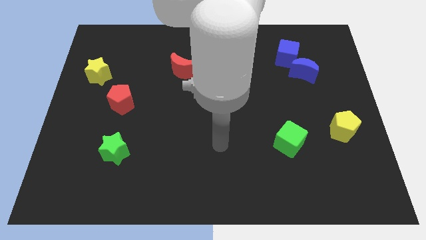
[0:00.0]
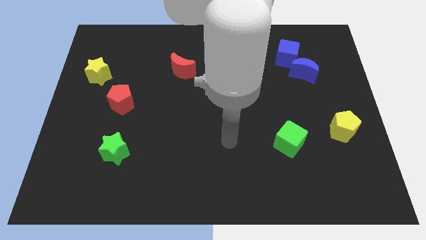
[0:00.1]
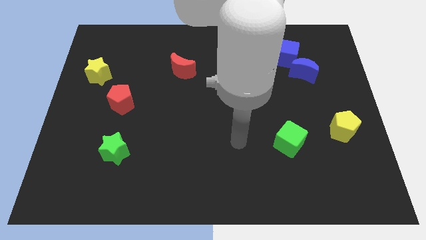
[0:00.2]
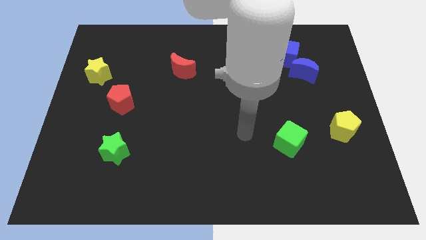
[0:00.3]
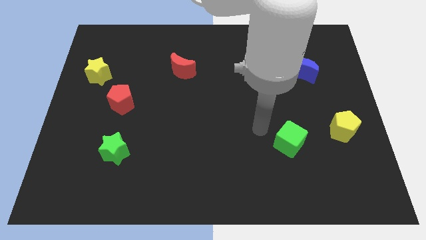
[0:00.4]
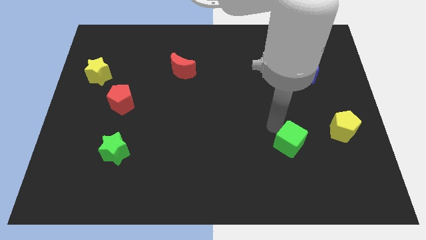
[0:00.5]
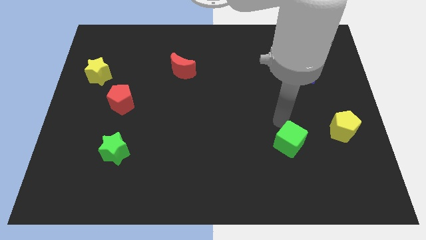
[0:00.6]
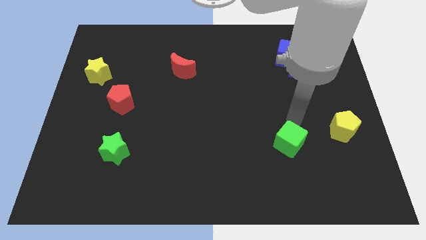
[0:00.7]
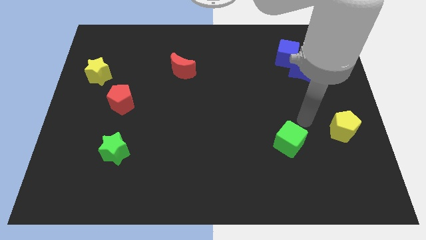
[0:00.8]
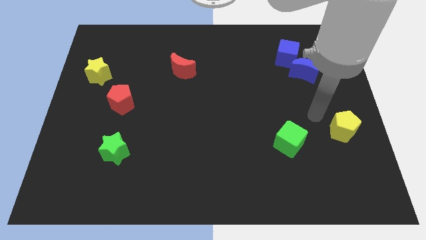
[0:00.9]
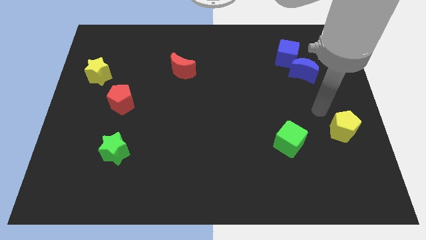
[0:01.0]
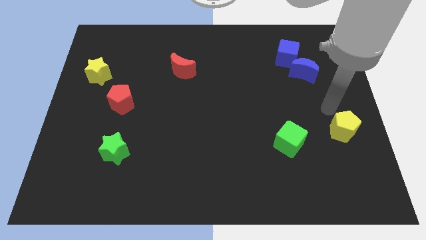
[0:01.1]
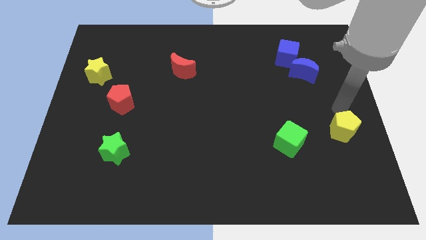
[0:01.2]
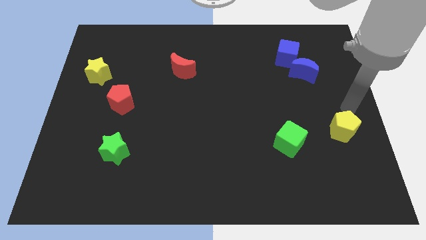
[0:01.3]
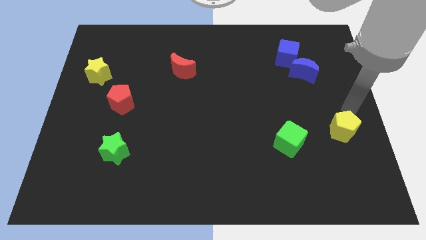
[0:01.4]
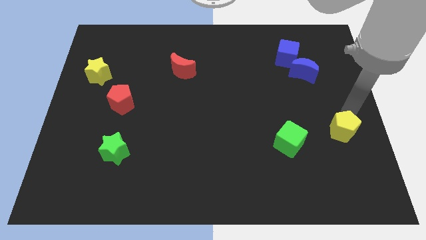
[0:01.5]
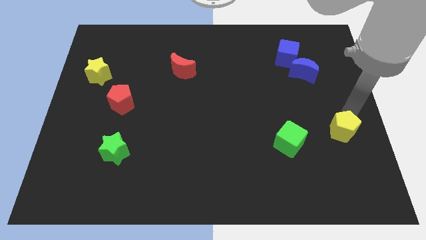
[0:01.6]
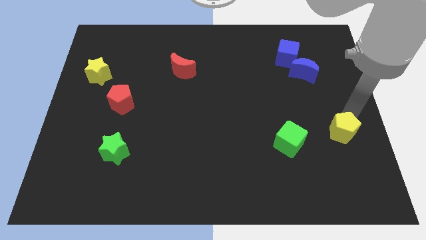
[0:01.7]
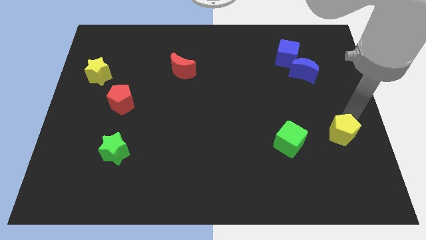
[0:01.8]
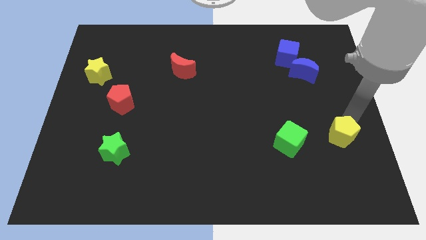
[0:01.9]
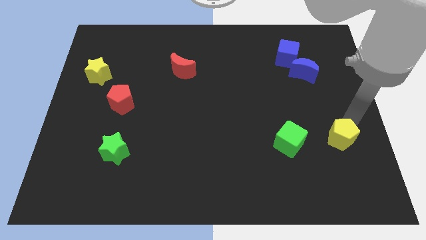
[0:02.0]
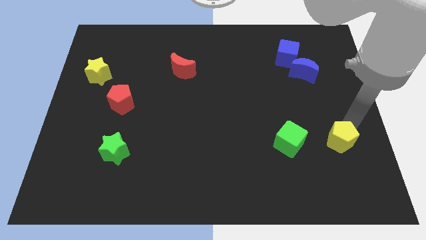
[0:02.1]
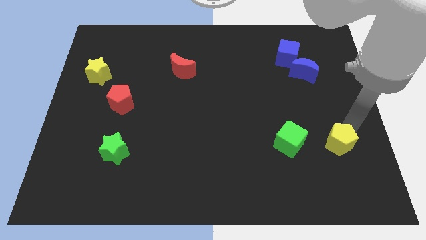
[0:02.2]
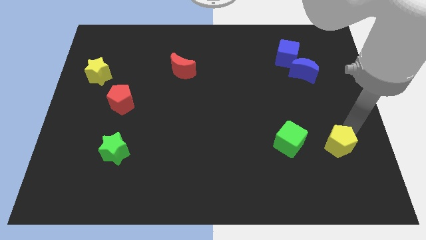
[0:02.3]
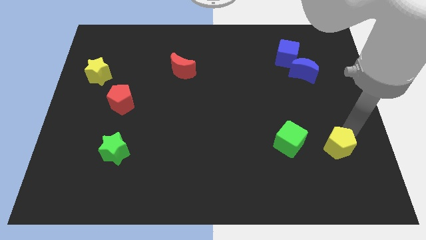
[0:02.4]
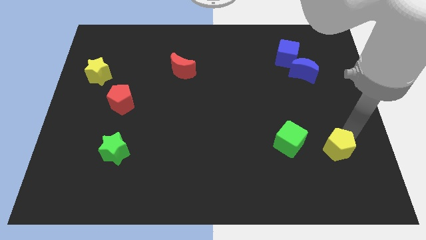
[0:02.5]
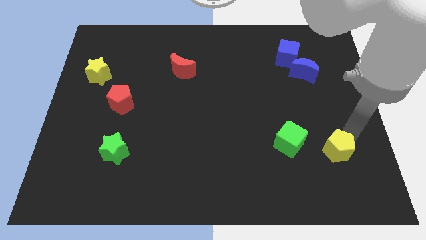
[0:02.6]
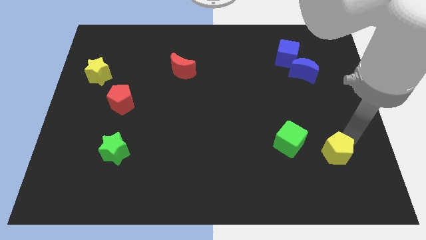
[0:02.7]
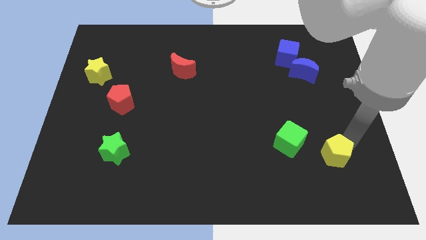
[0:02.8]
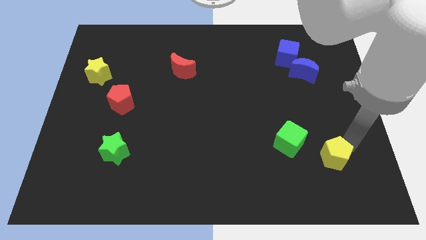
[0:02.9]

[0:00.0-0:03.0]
slide the yellow pentagon a little down and left diagonally

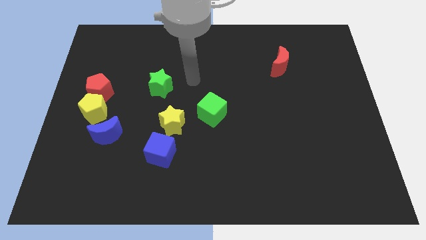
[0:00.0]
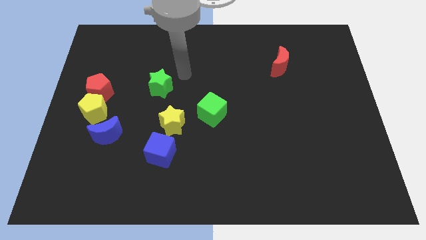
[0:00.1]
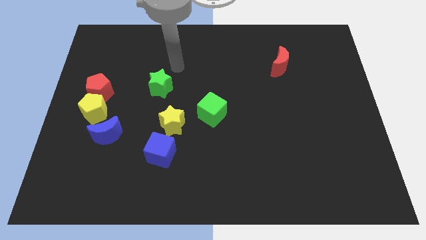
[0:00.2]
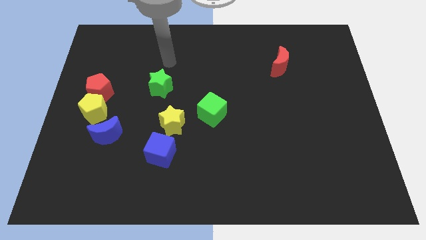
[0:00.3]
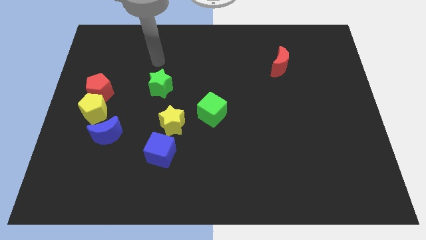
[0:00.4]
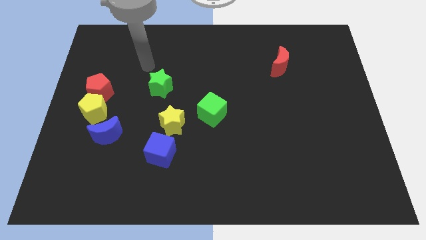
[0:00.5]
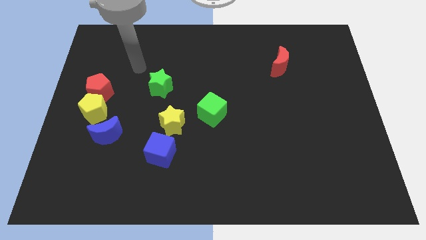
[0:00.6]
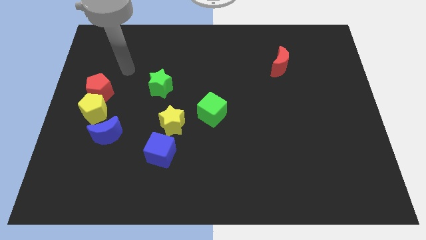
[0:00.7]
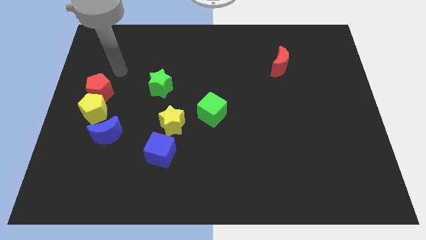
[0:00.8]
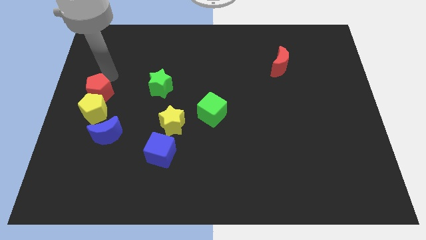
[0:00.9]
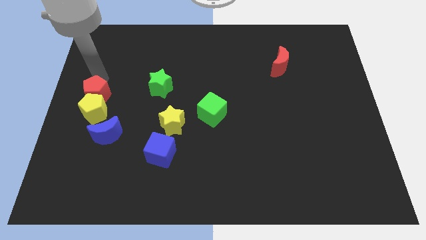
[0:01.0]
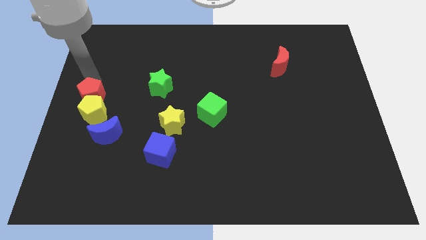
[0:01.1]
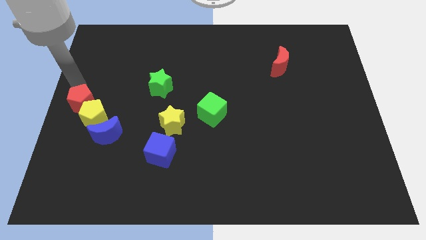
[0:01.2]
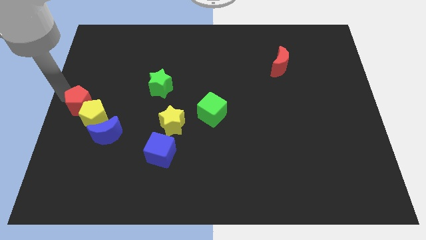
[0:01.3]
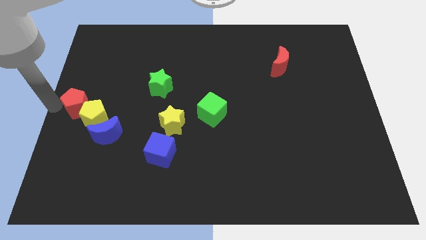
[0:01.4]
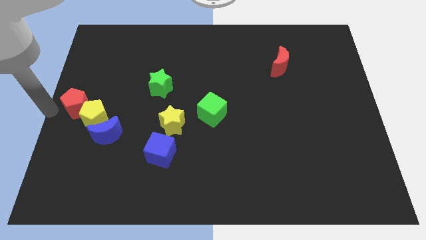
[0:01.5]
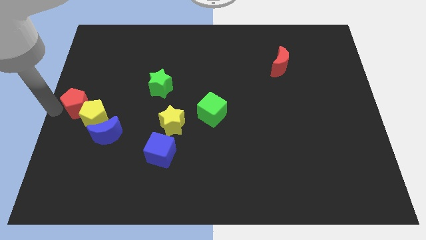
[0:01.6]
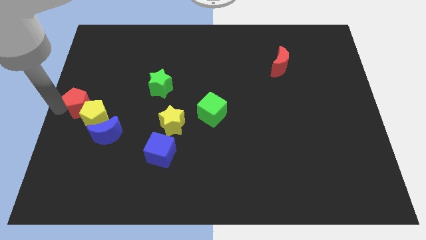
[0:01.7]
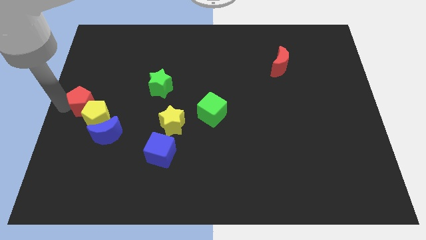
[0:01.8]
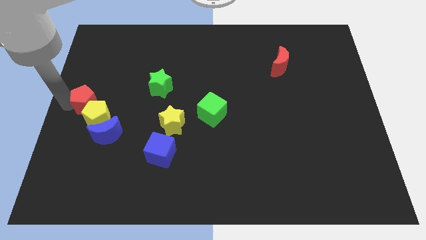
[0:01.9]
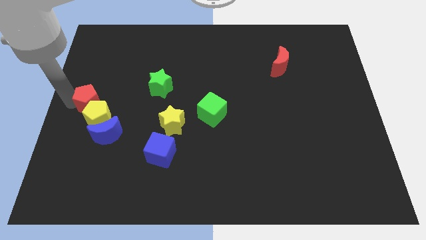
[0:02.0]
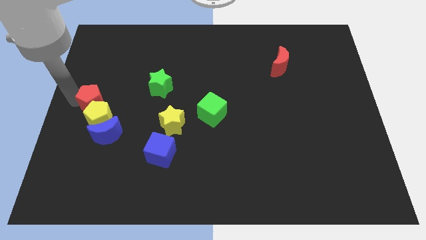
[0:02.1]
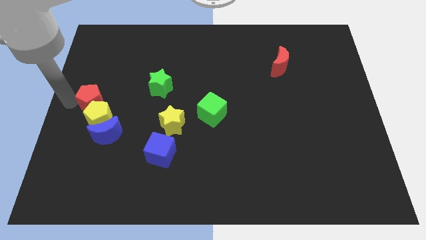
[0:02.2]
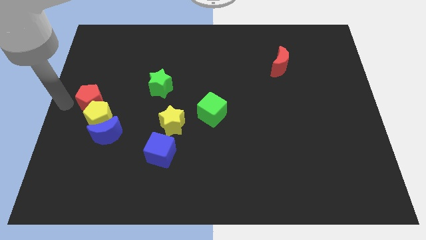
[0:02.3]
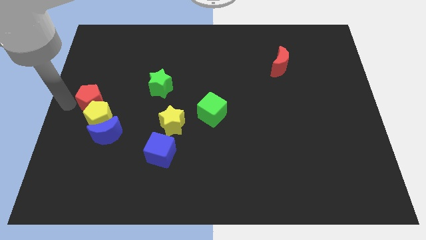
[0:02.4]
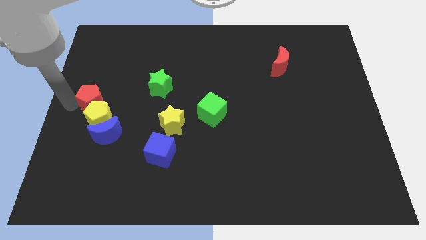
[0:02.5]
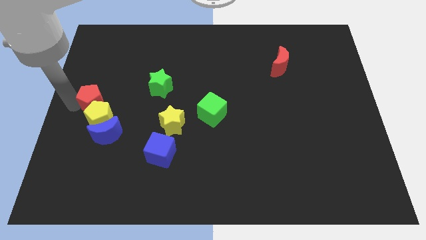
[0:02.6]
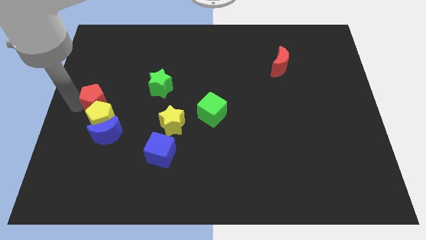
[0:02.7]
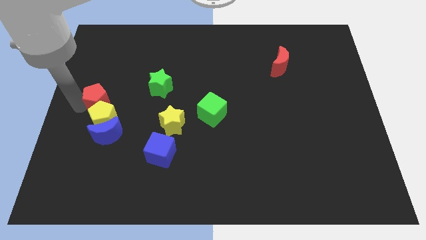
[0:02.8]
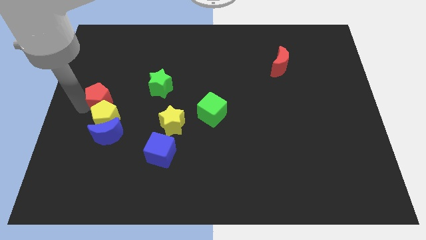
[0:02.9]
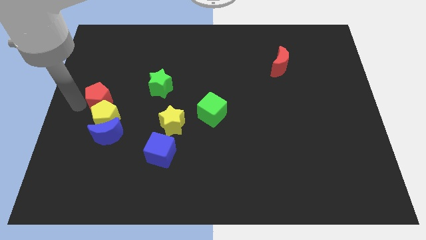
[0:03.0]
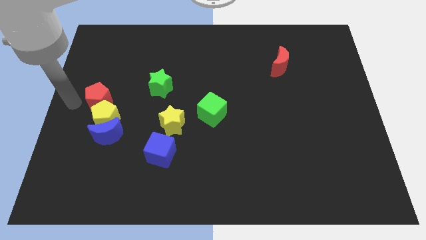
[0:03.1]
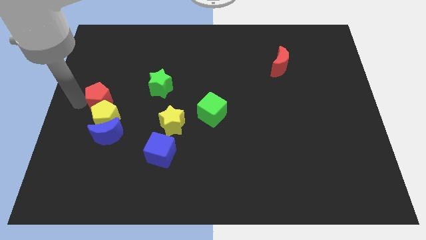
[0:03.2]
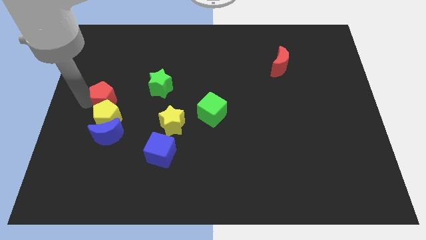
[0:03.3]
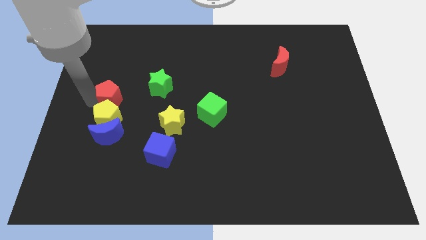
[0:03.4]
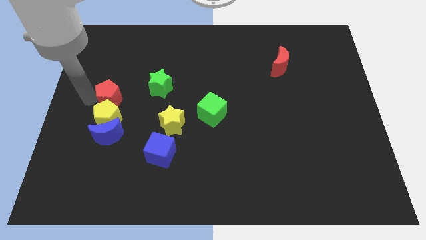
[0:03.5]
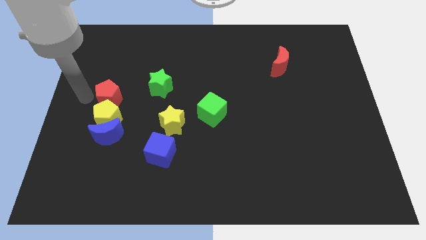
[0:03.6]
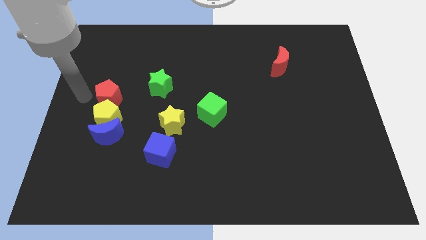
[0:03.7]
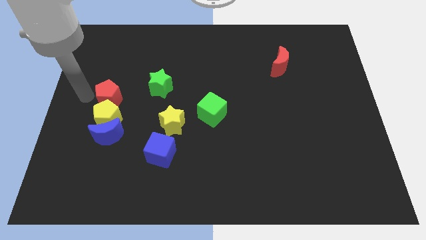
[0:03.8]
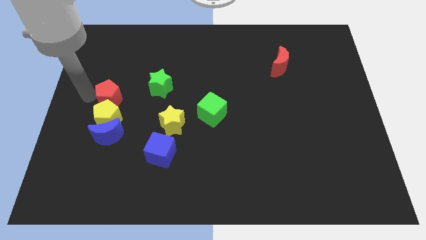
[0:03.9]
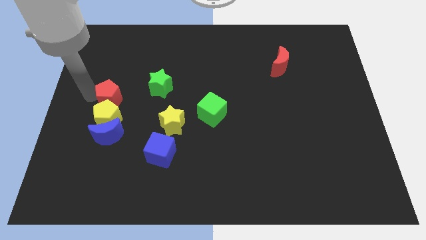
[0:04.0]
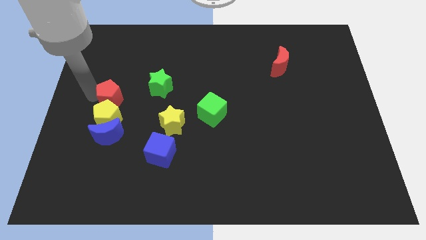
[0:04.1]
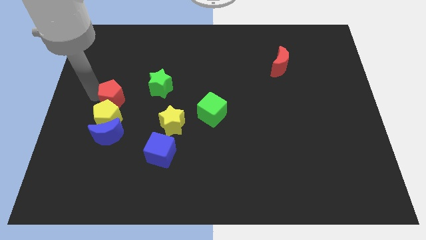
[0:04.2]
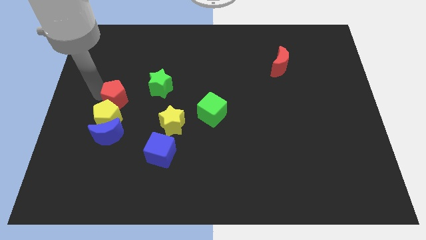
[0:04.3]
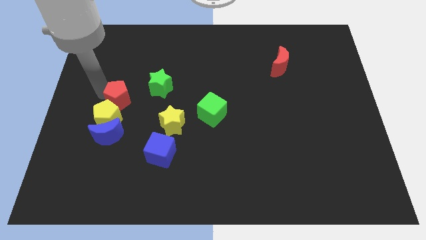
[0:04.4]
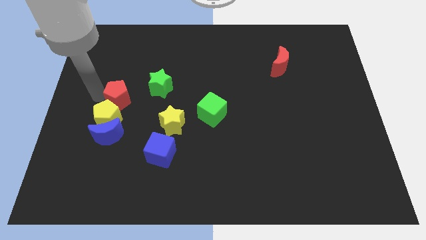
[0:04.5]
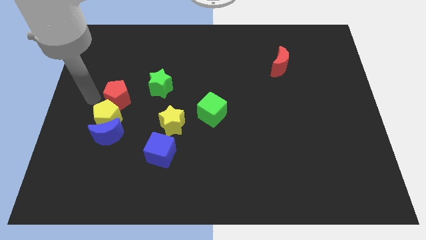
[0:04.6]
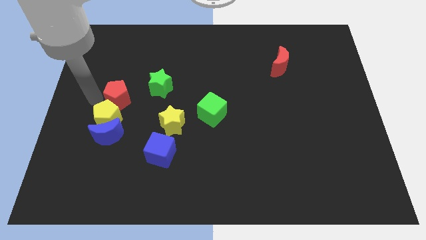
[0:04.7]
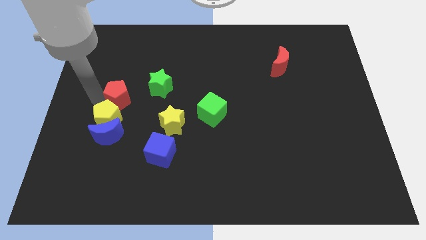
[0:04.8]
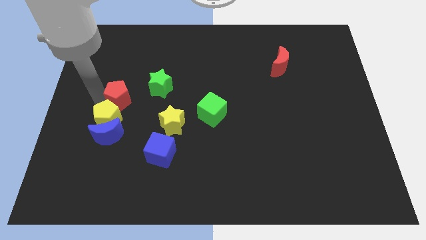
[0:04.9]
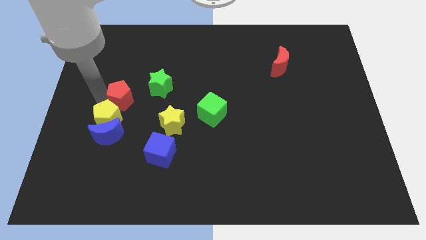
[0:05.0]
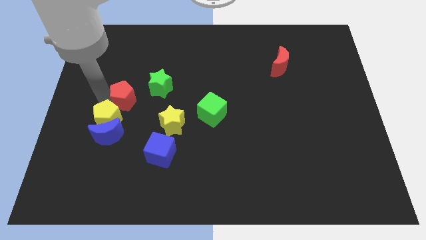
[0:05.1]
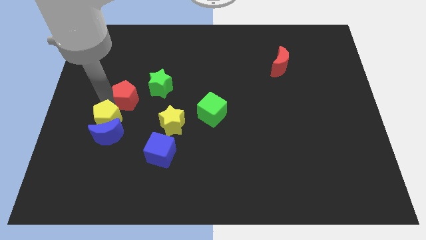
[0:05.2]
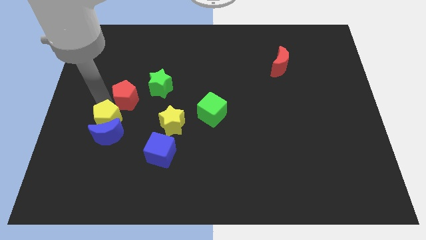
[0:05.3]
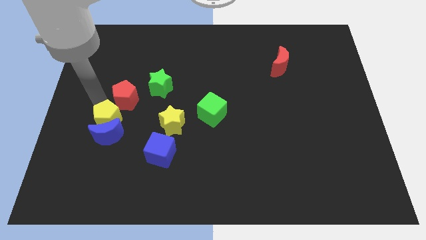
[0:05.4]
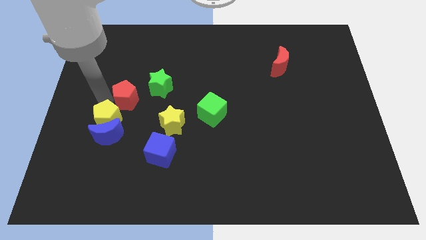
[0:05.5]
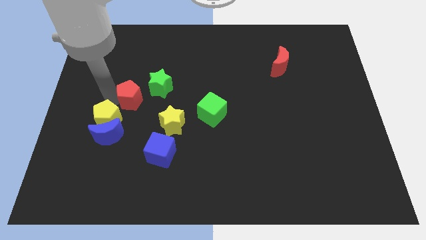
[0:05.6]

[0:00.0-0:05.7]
move the red pentagon somewhat to the right
